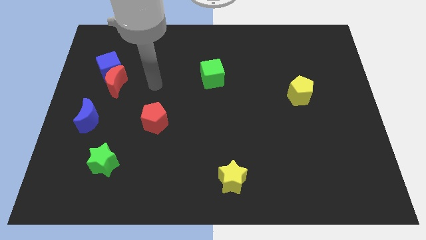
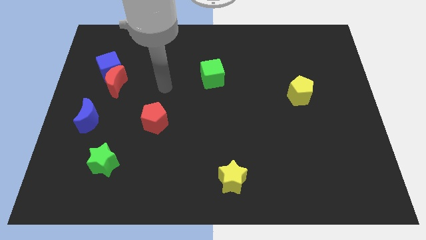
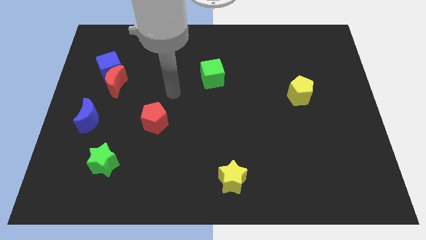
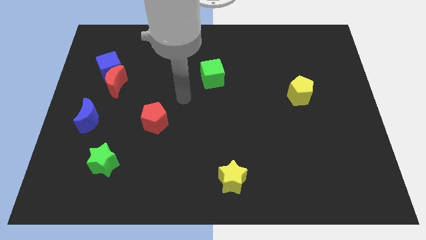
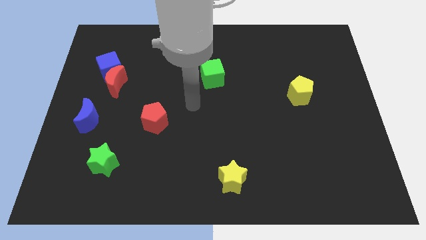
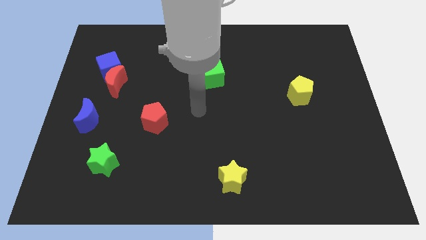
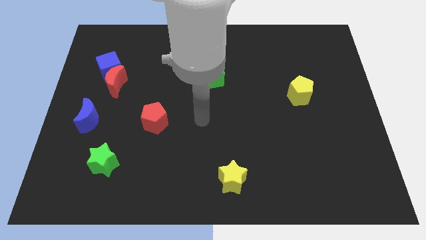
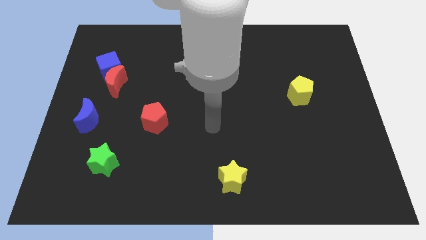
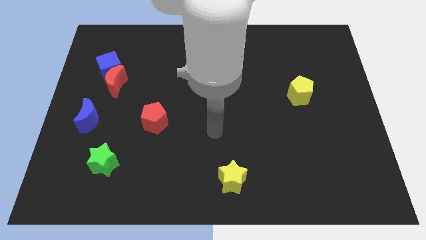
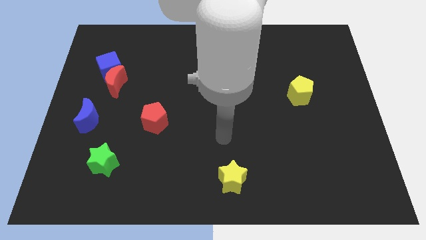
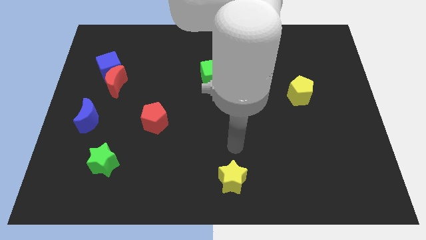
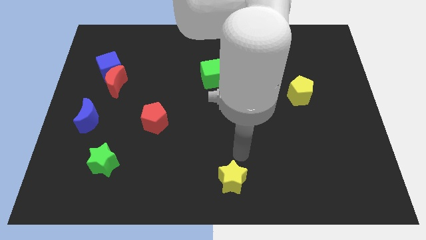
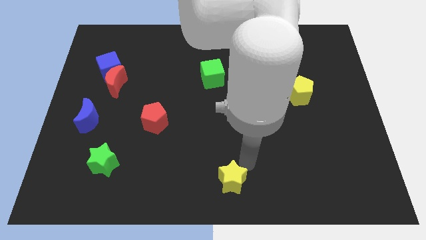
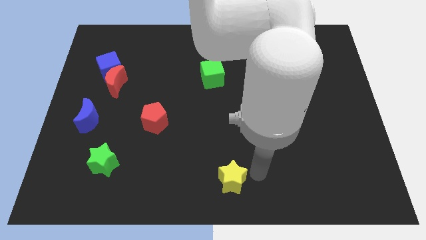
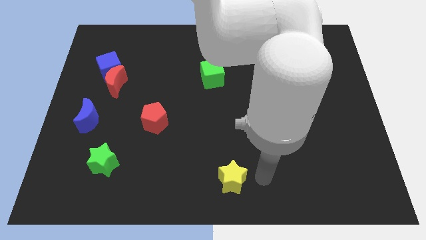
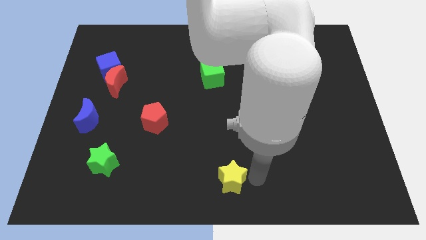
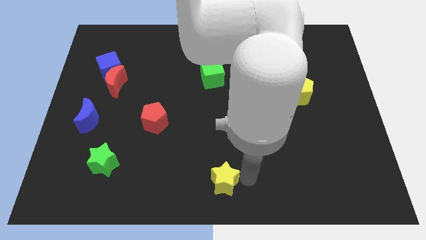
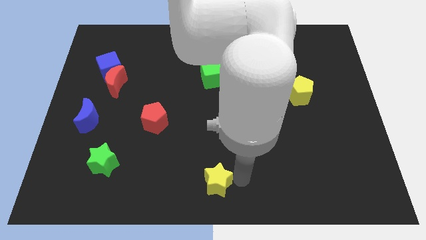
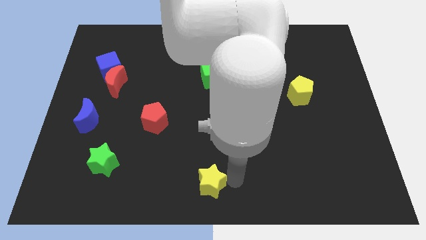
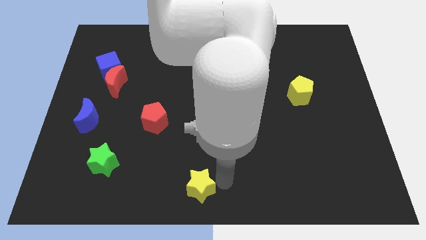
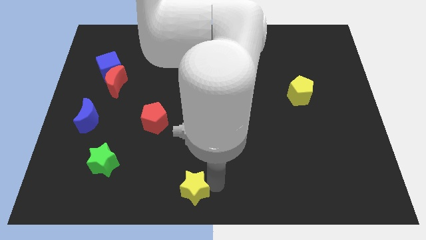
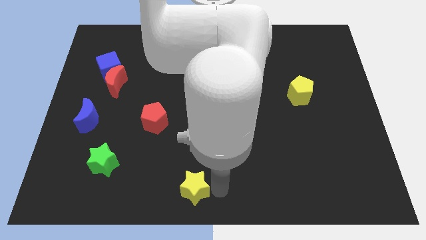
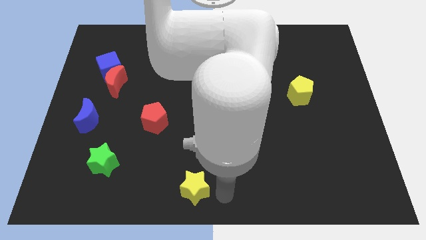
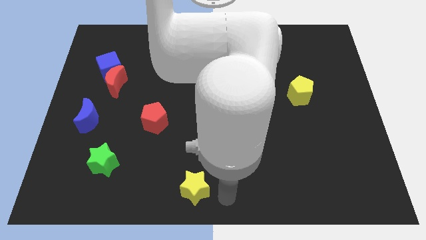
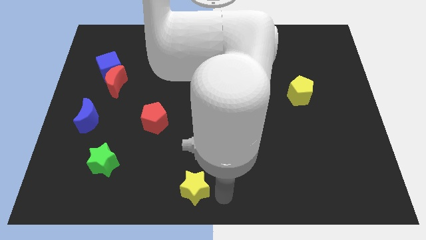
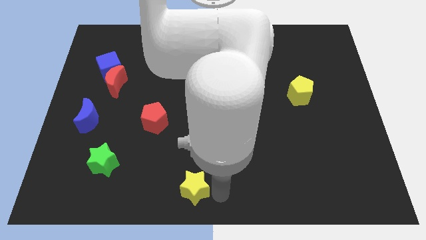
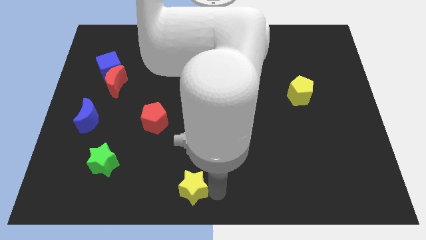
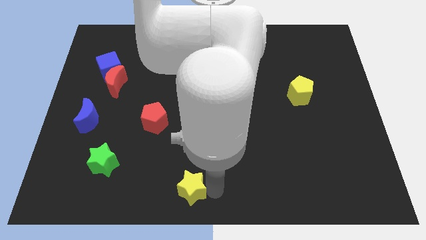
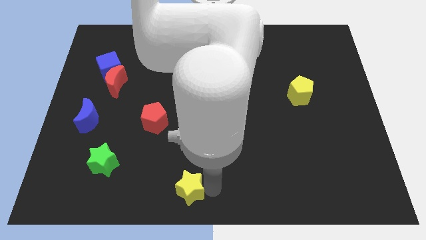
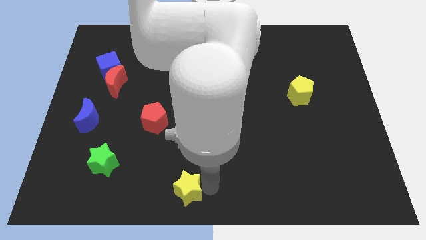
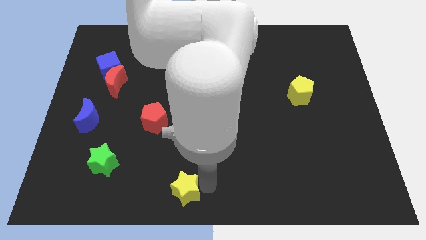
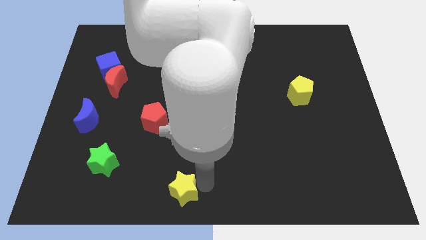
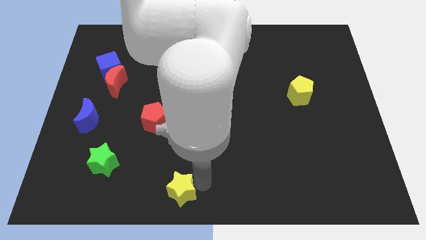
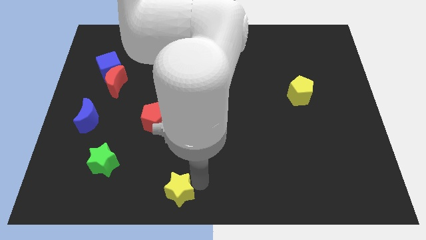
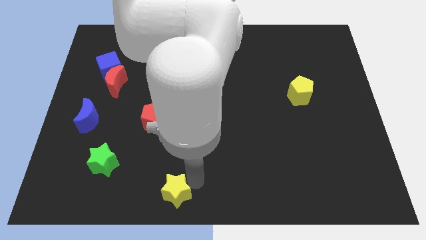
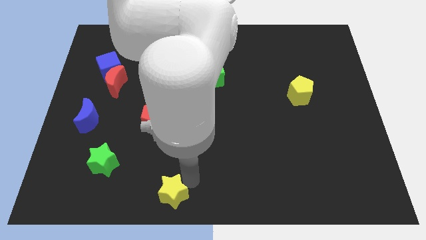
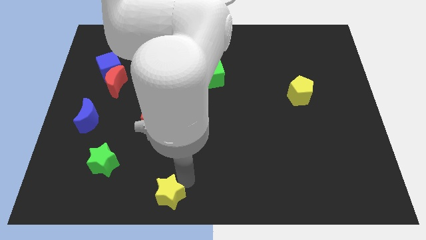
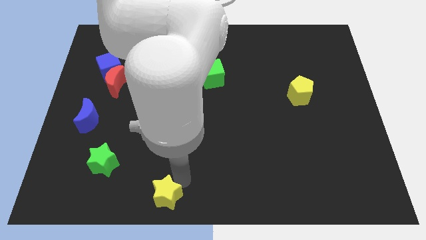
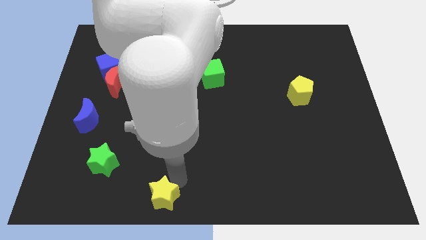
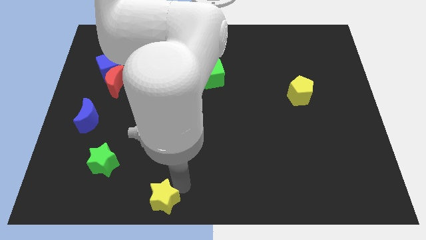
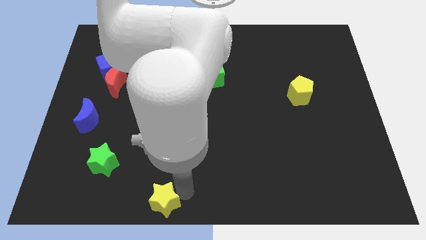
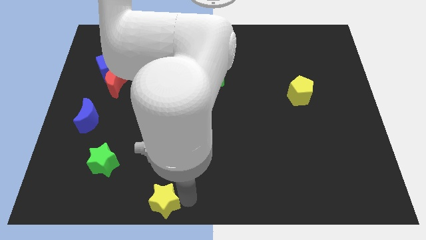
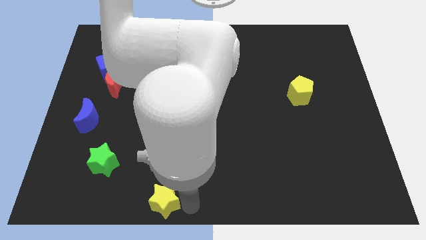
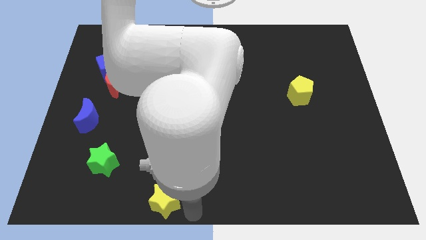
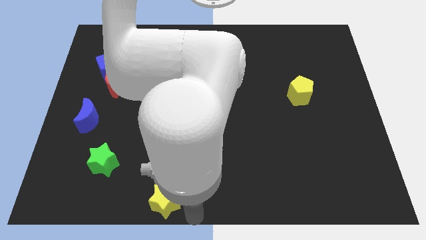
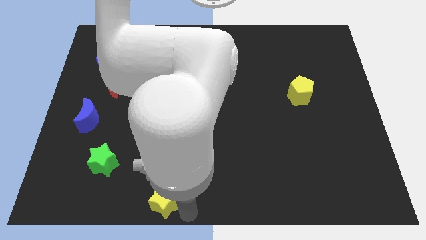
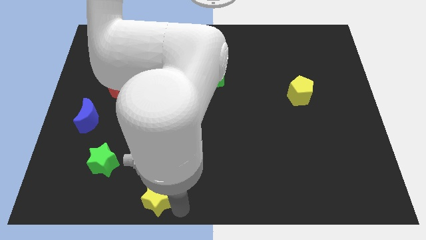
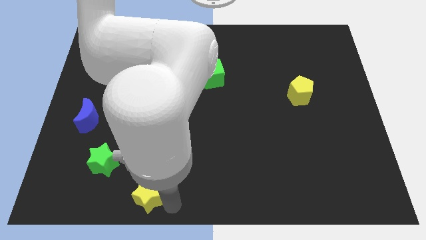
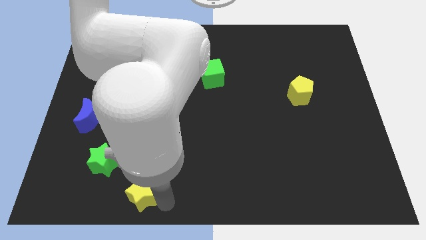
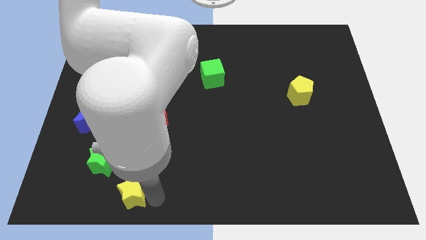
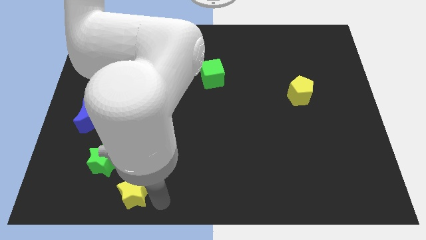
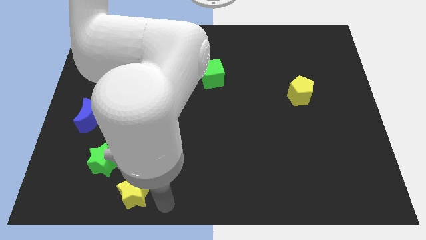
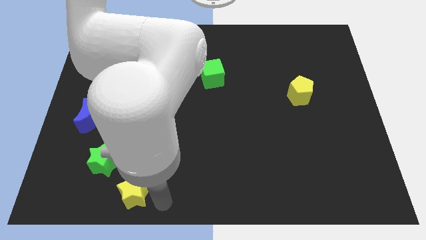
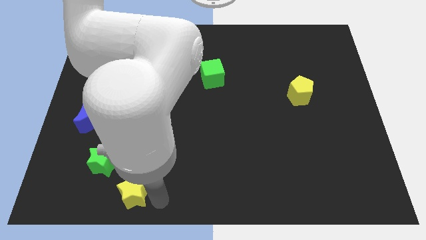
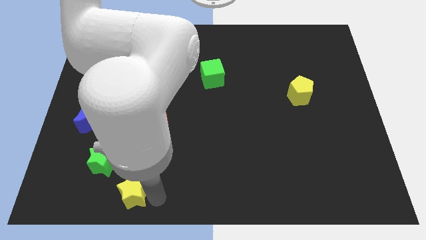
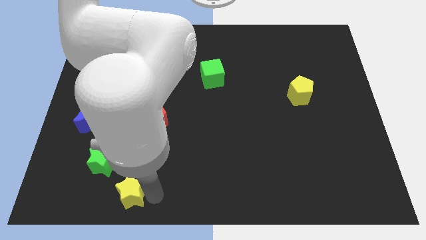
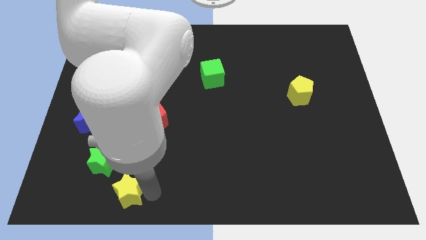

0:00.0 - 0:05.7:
slide the yellow star left

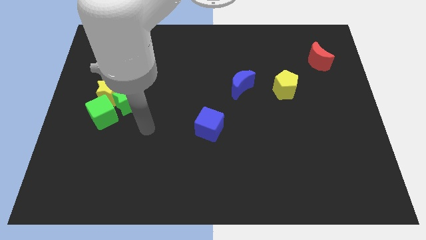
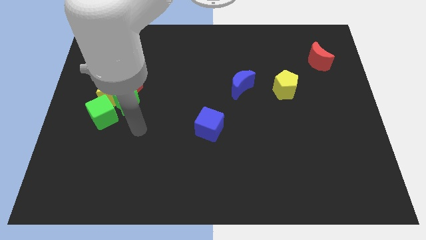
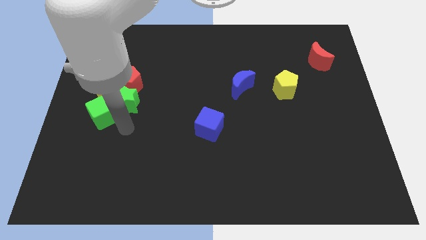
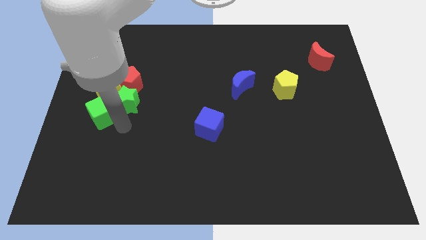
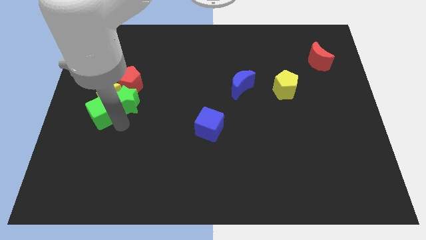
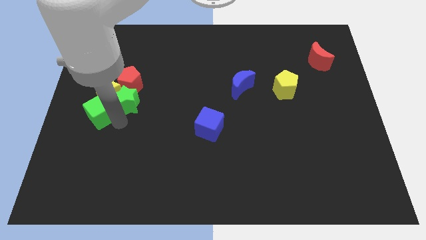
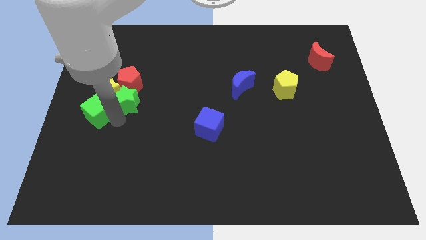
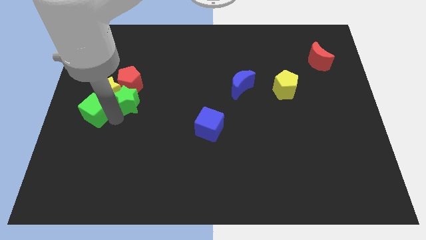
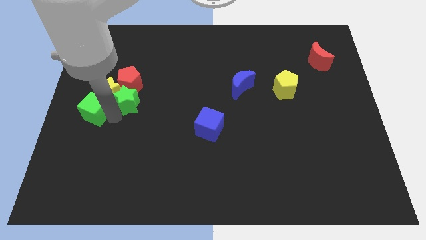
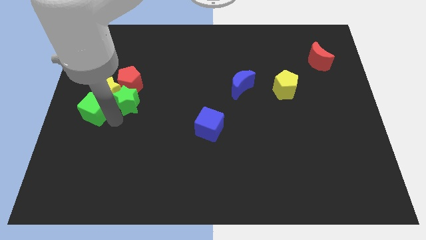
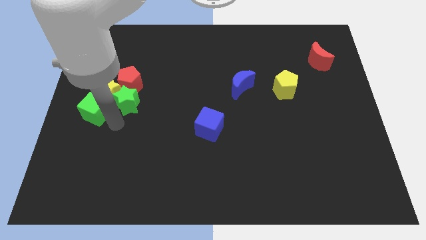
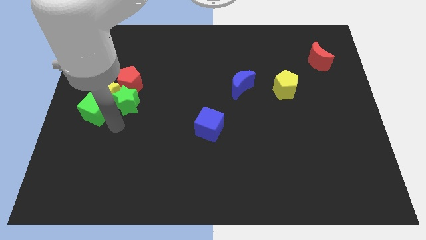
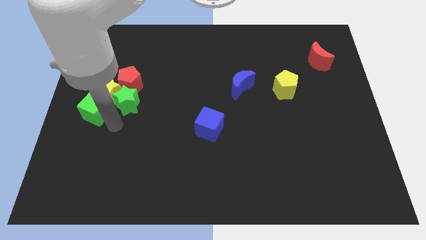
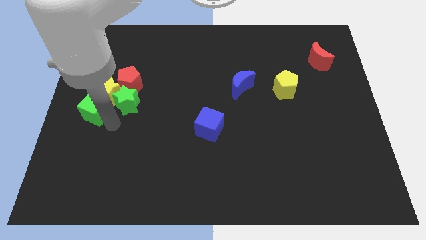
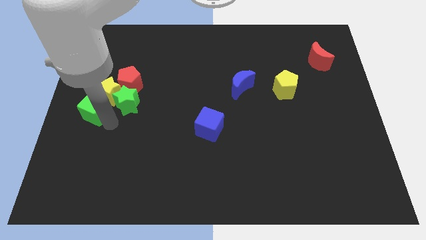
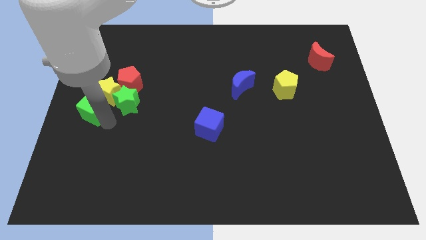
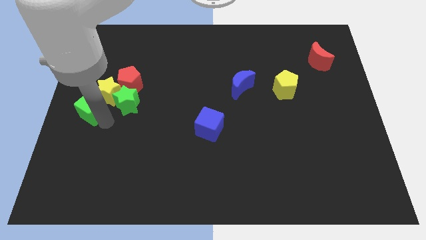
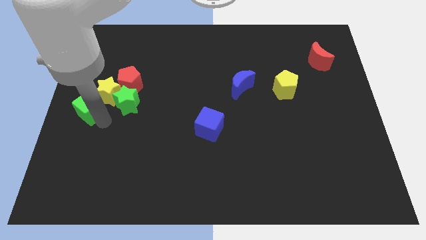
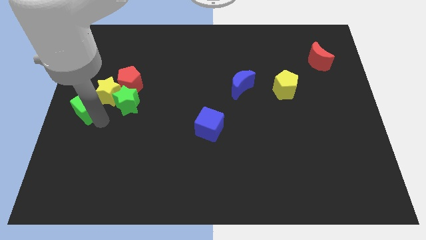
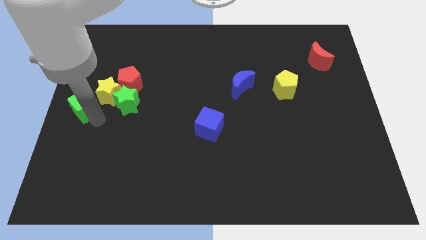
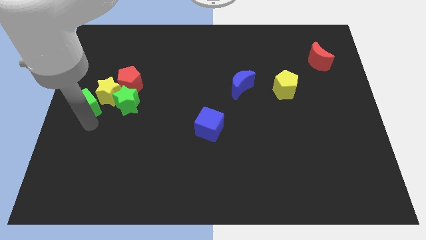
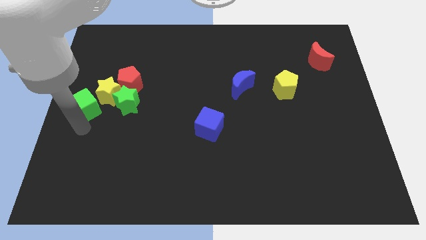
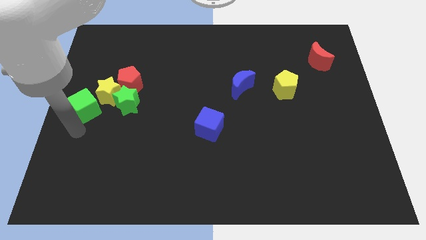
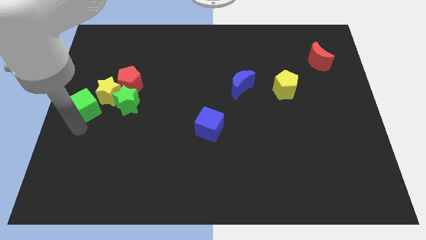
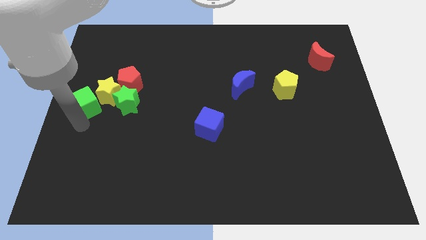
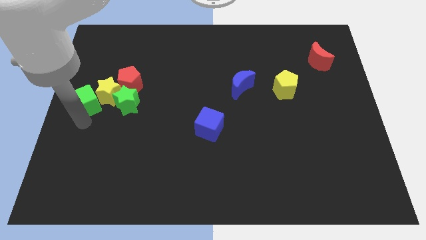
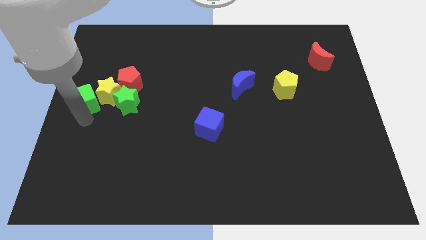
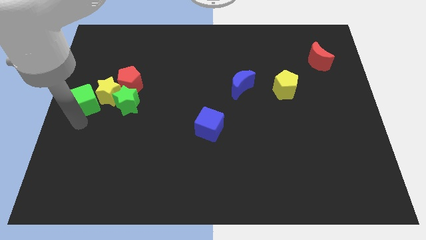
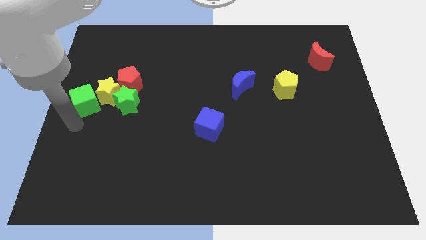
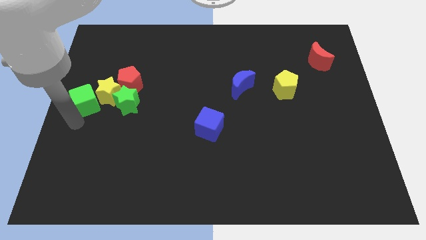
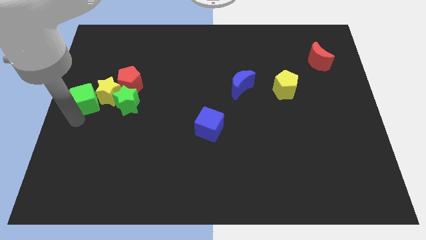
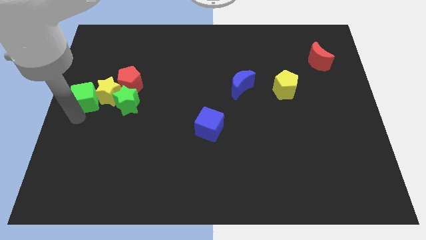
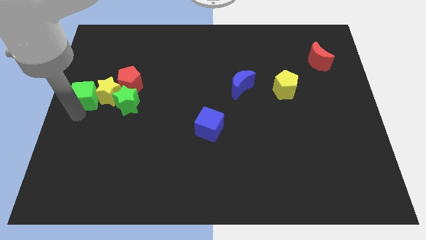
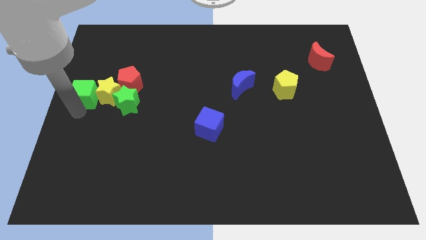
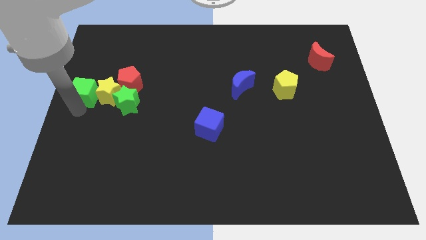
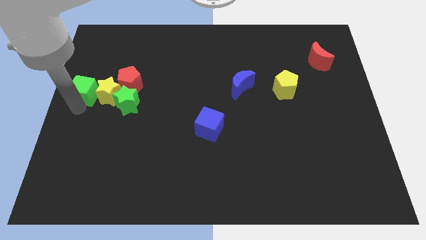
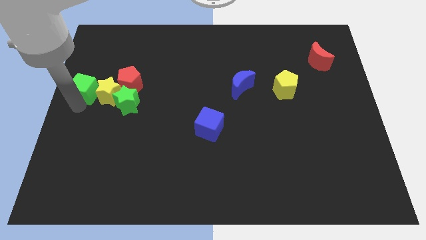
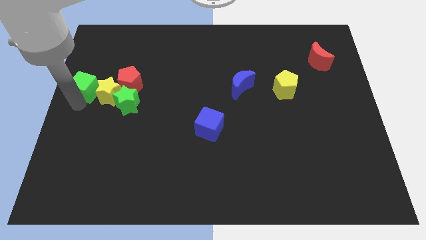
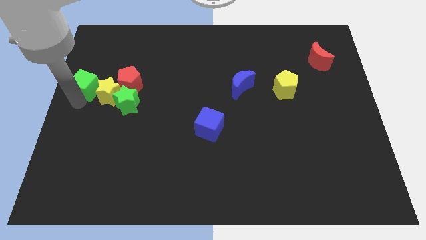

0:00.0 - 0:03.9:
move the green cube up a bit
